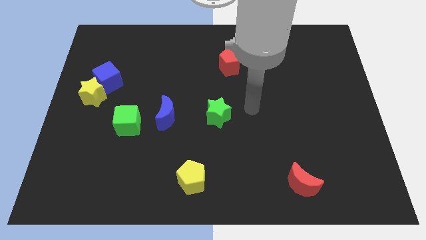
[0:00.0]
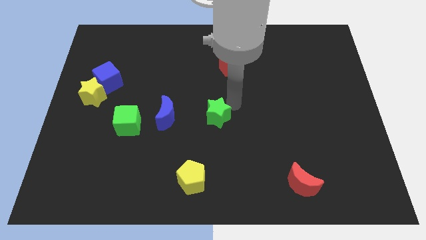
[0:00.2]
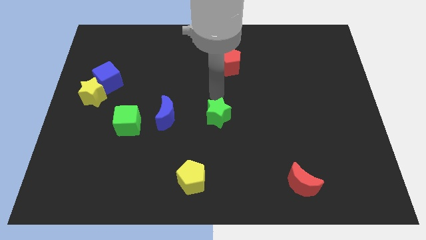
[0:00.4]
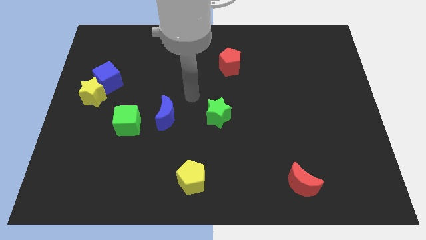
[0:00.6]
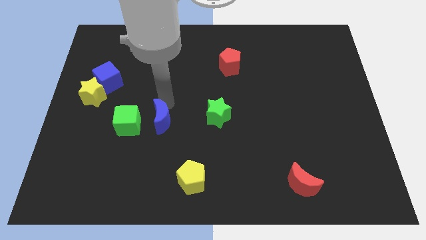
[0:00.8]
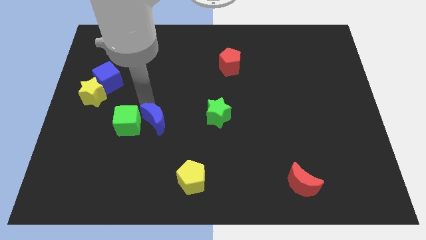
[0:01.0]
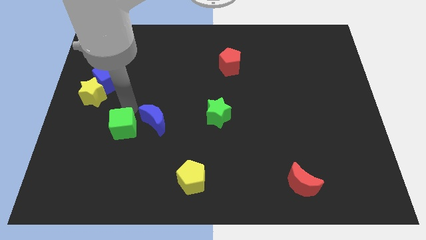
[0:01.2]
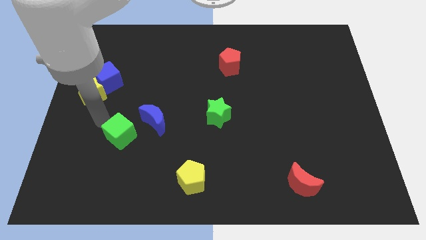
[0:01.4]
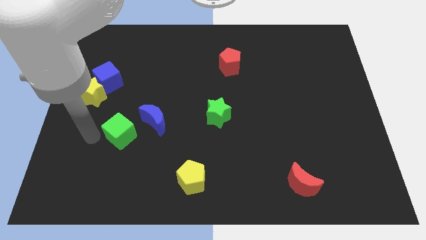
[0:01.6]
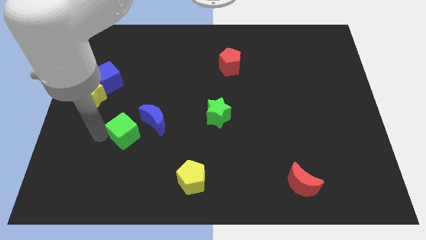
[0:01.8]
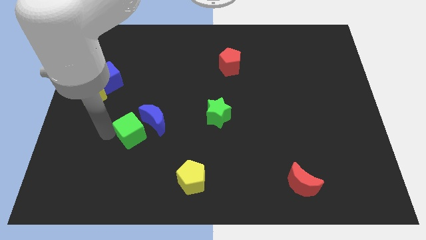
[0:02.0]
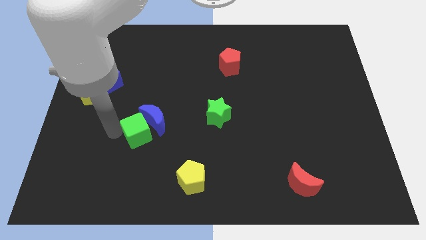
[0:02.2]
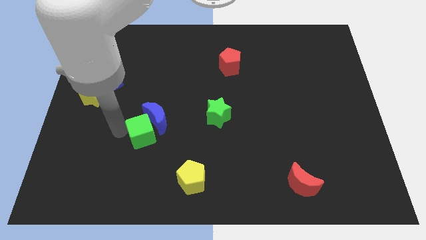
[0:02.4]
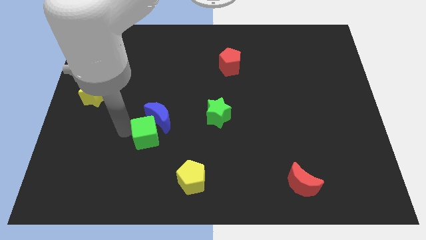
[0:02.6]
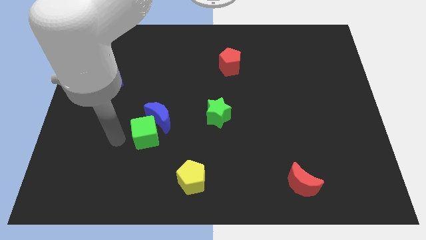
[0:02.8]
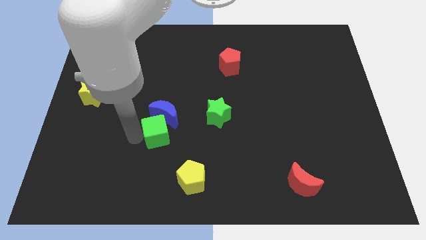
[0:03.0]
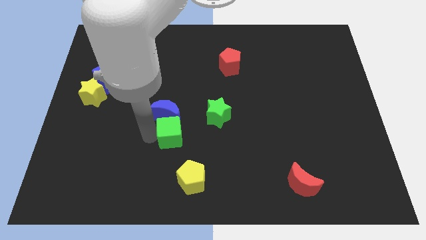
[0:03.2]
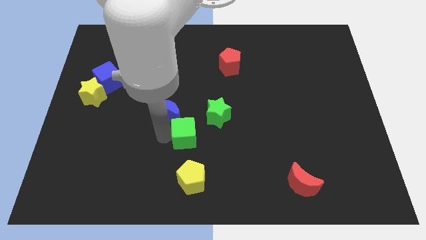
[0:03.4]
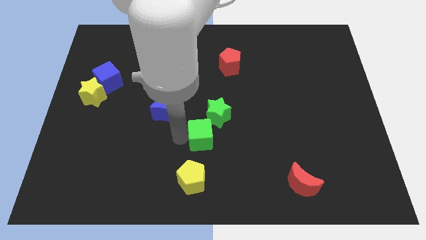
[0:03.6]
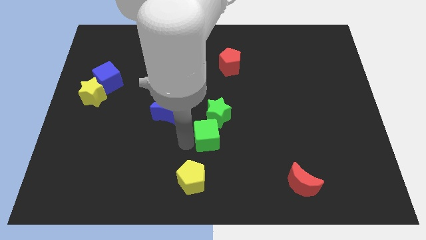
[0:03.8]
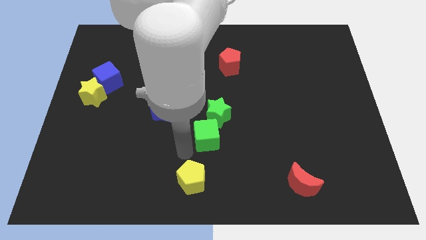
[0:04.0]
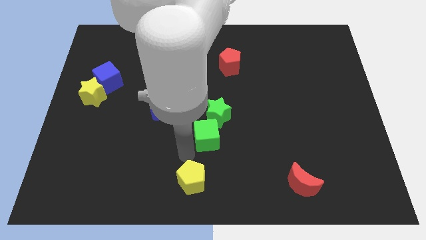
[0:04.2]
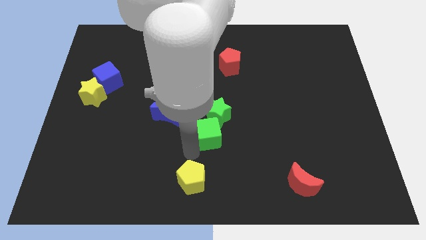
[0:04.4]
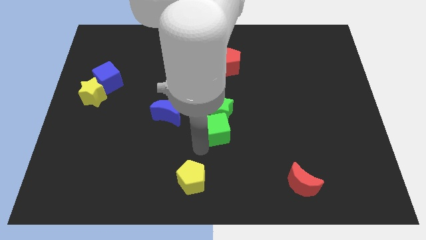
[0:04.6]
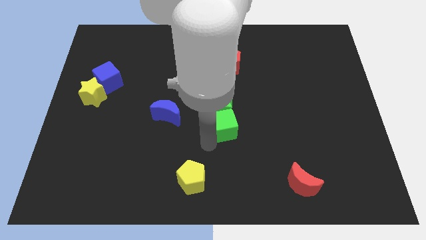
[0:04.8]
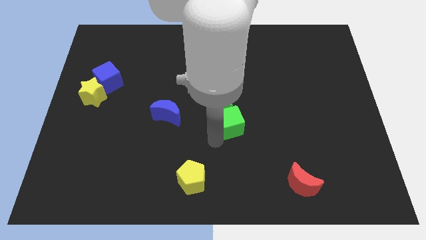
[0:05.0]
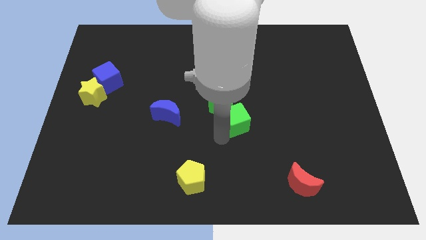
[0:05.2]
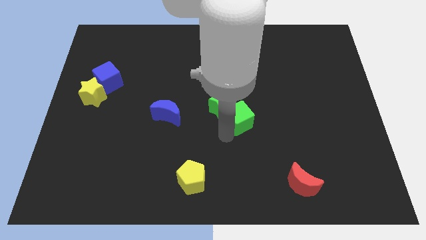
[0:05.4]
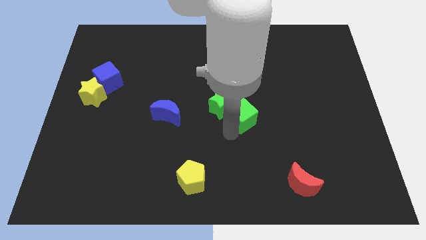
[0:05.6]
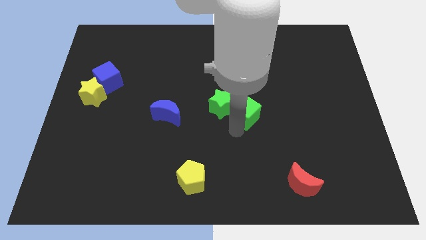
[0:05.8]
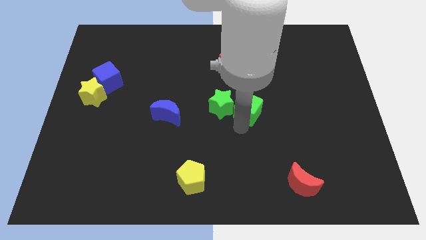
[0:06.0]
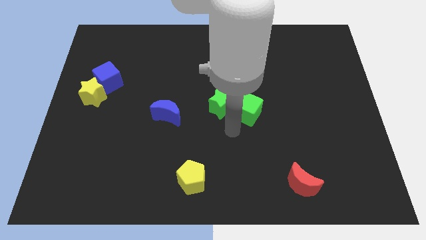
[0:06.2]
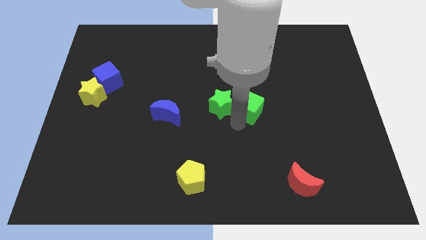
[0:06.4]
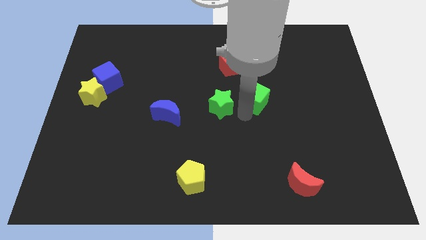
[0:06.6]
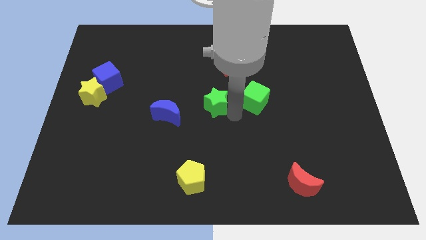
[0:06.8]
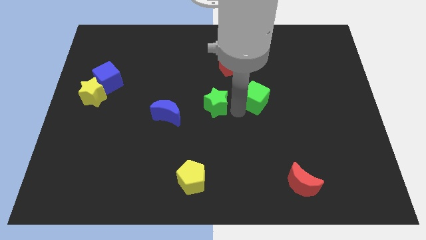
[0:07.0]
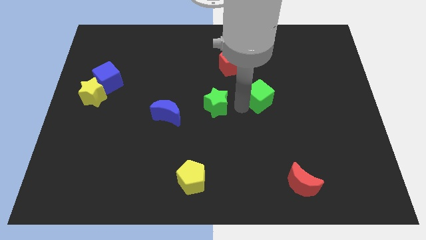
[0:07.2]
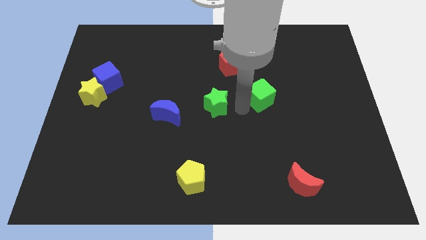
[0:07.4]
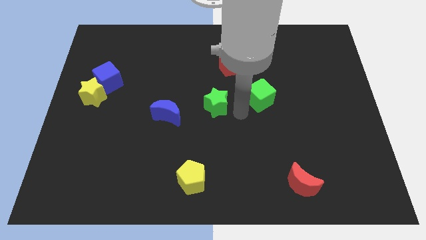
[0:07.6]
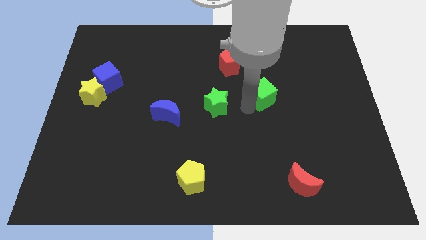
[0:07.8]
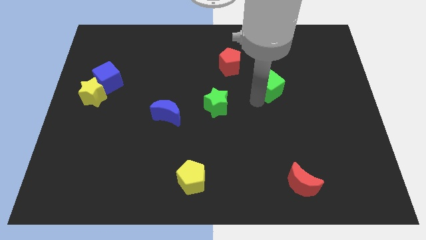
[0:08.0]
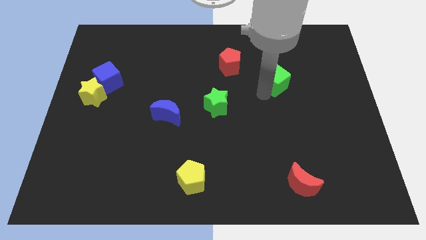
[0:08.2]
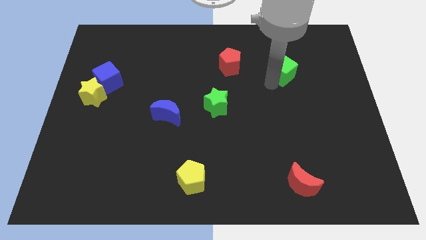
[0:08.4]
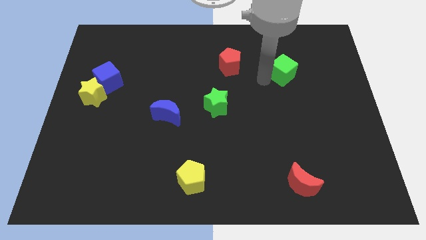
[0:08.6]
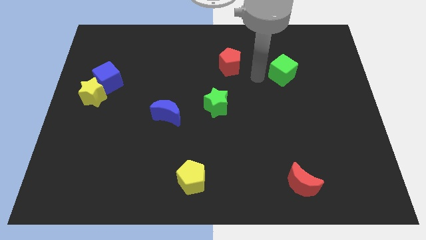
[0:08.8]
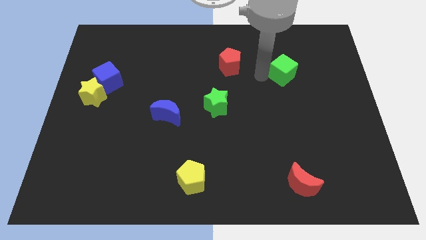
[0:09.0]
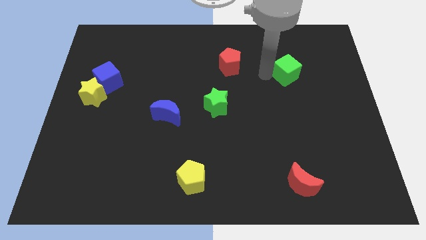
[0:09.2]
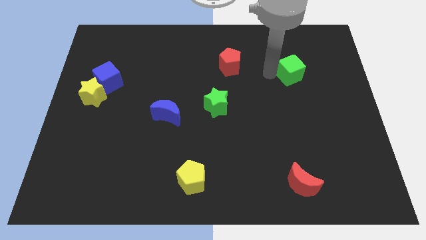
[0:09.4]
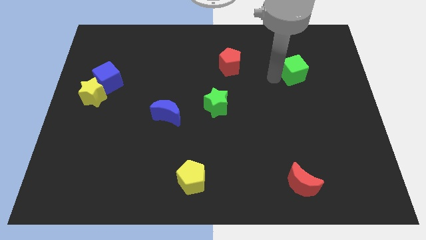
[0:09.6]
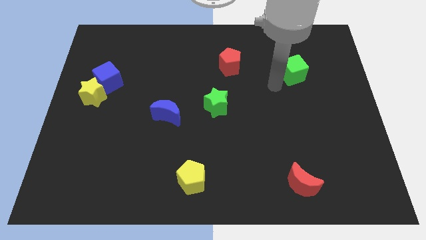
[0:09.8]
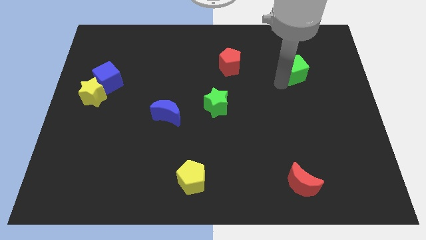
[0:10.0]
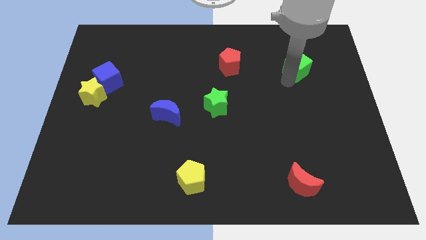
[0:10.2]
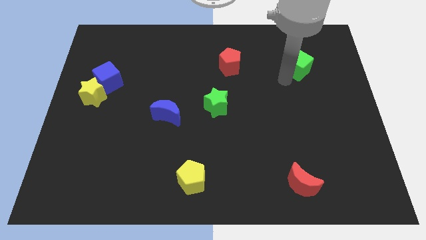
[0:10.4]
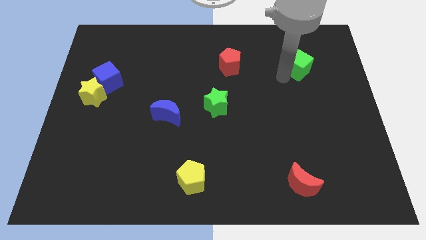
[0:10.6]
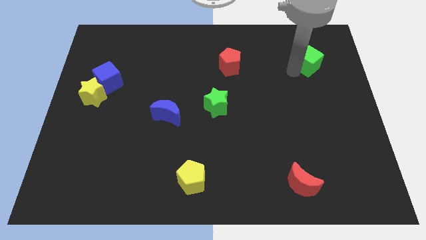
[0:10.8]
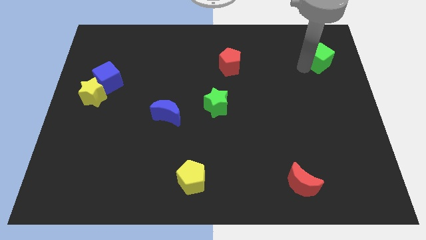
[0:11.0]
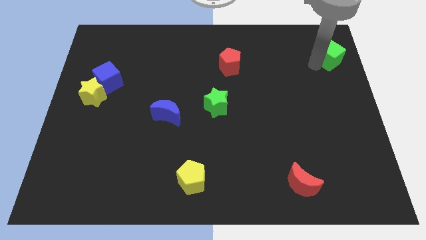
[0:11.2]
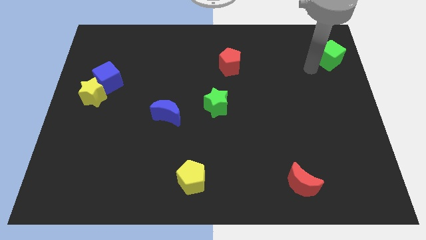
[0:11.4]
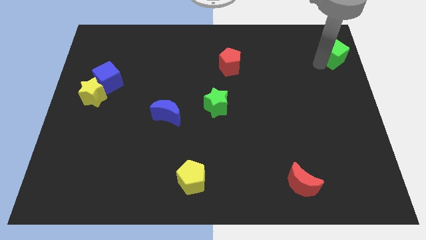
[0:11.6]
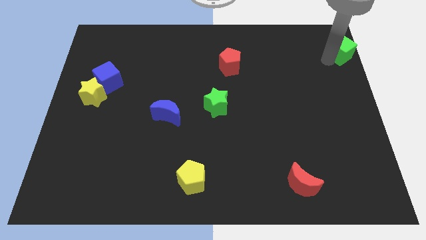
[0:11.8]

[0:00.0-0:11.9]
move the green cube to the top right

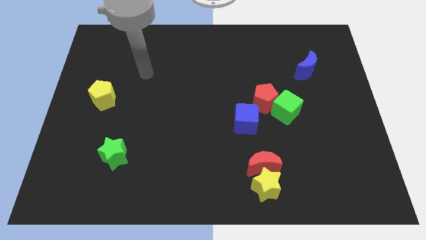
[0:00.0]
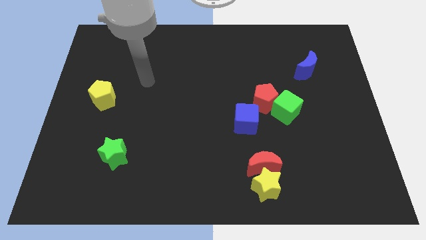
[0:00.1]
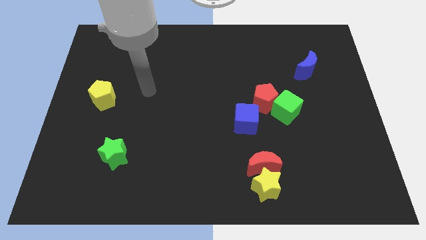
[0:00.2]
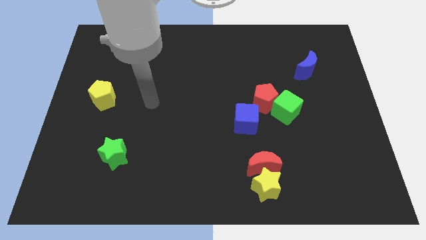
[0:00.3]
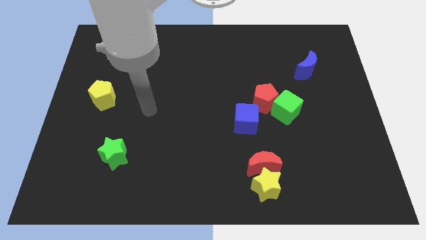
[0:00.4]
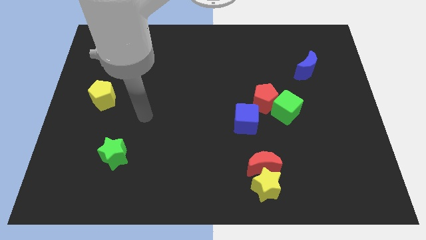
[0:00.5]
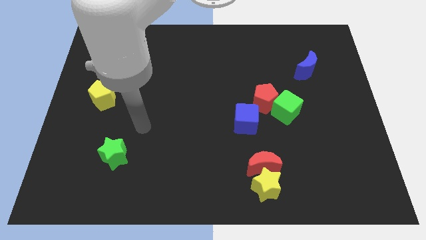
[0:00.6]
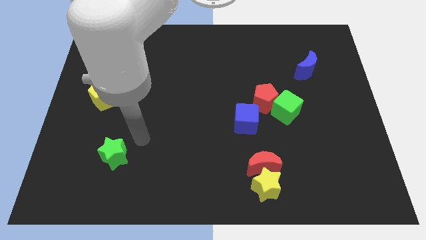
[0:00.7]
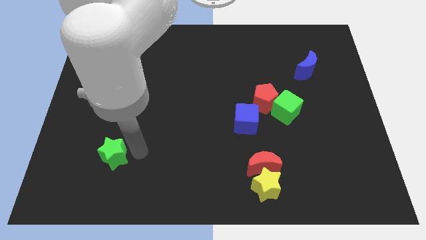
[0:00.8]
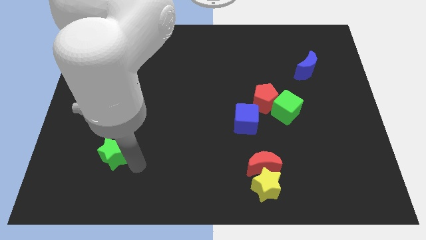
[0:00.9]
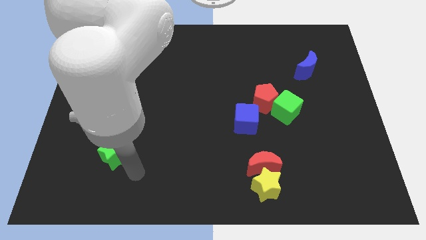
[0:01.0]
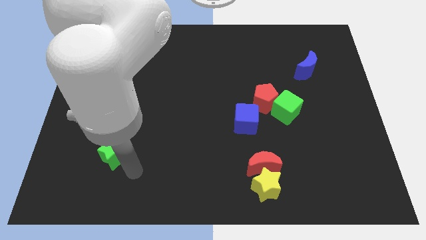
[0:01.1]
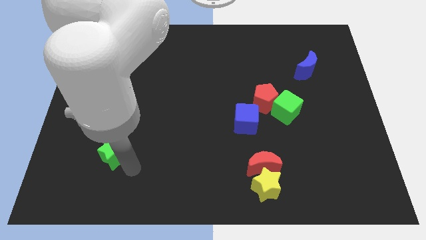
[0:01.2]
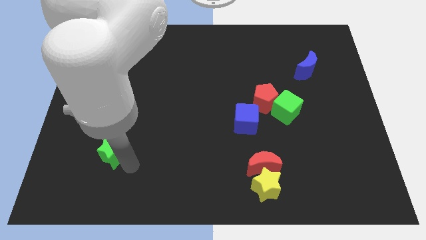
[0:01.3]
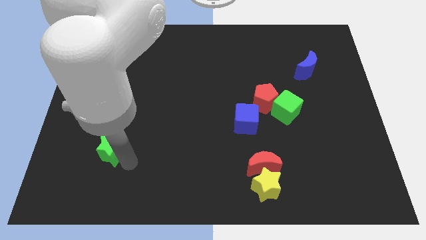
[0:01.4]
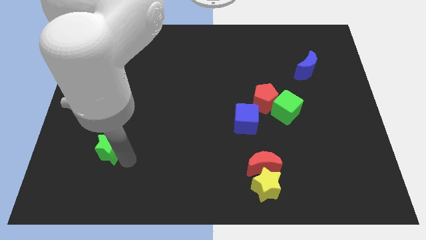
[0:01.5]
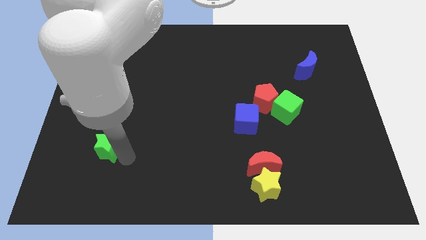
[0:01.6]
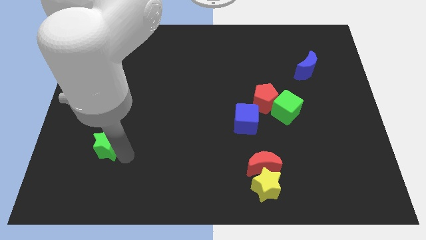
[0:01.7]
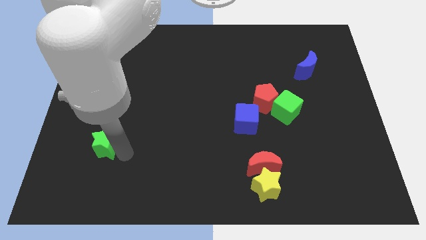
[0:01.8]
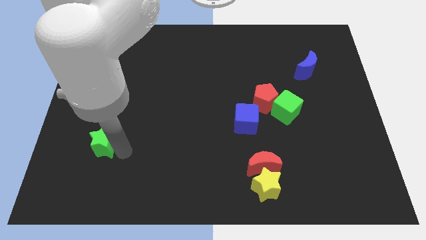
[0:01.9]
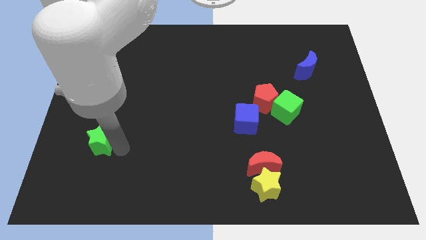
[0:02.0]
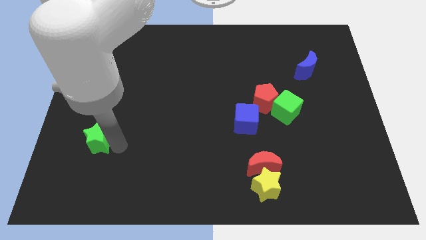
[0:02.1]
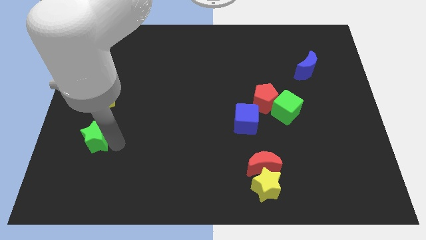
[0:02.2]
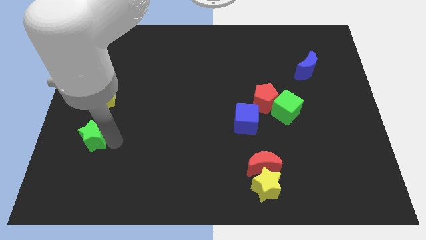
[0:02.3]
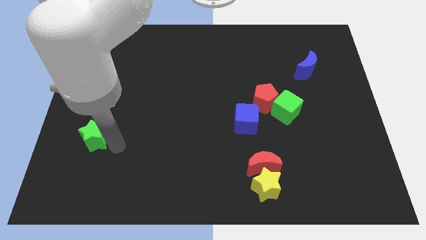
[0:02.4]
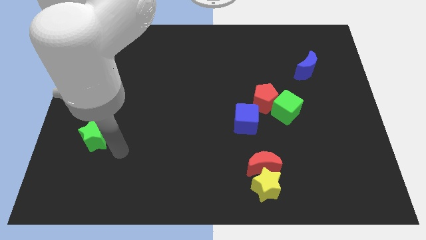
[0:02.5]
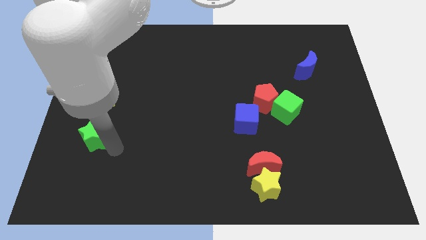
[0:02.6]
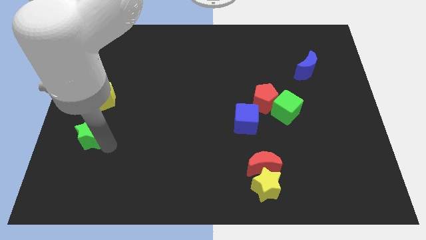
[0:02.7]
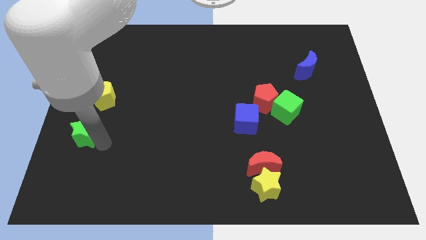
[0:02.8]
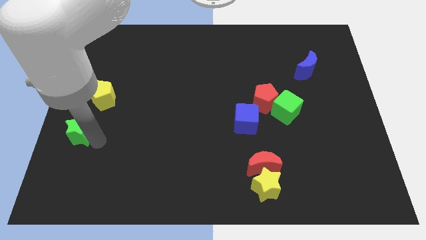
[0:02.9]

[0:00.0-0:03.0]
put the green star to the left side of the board
